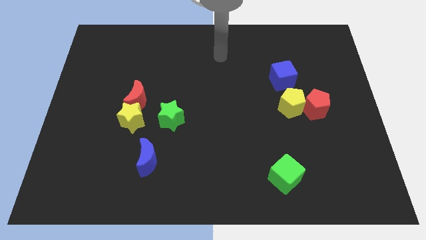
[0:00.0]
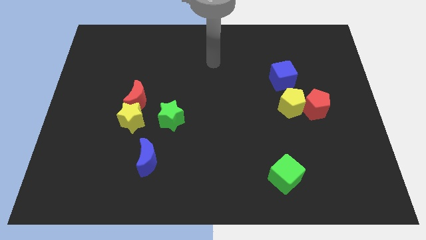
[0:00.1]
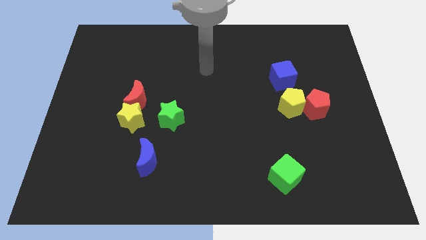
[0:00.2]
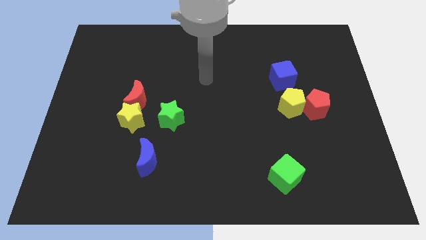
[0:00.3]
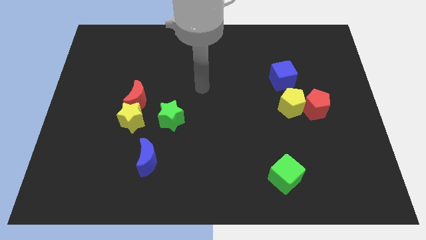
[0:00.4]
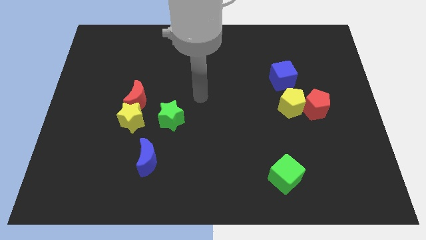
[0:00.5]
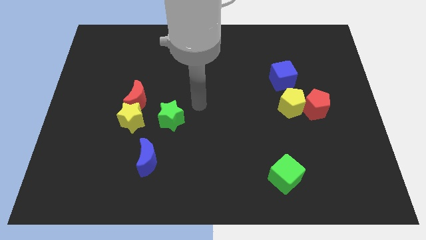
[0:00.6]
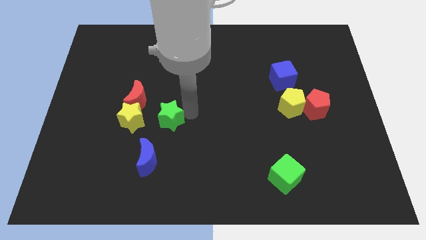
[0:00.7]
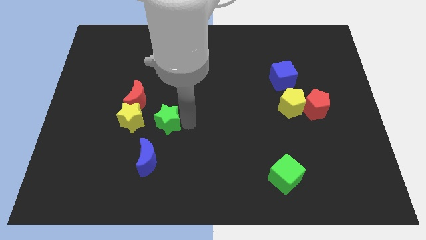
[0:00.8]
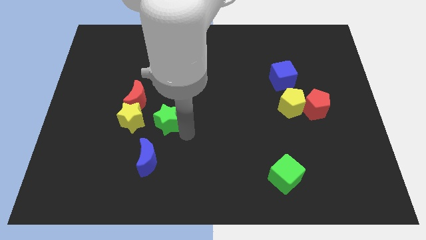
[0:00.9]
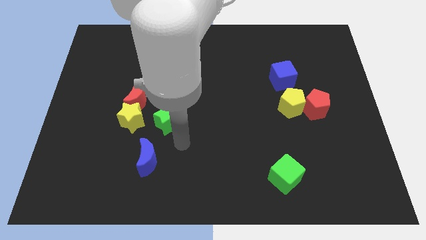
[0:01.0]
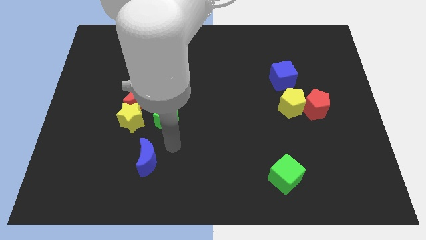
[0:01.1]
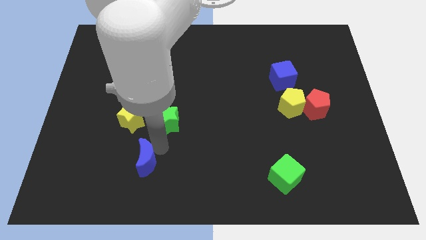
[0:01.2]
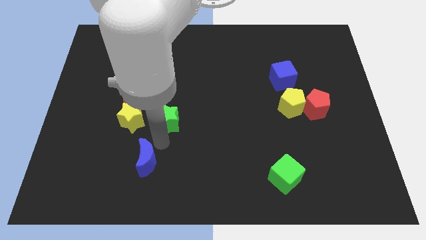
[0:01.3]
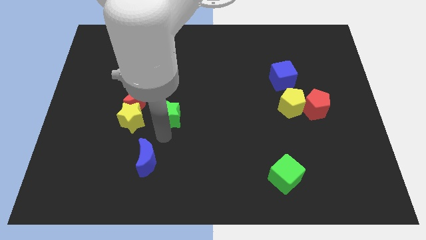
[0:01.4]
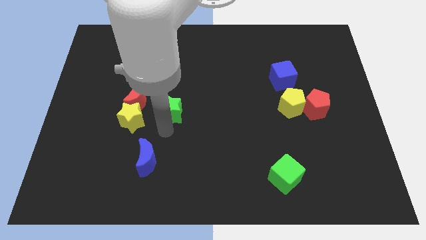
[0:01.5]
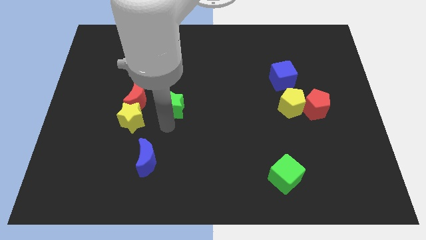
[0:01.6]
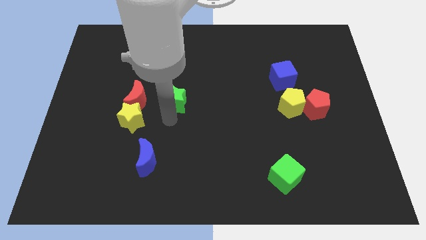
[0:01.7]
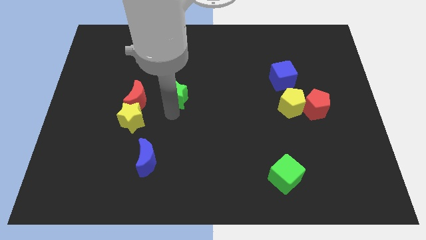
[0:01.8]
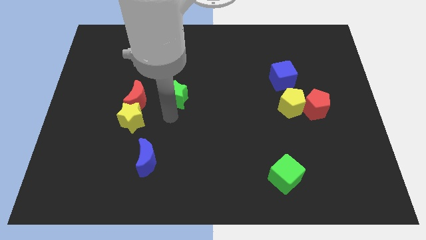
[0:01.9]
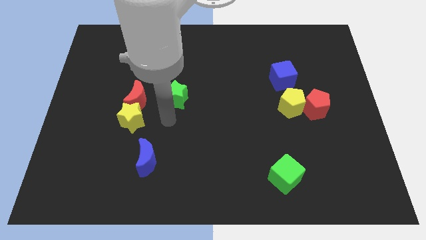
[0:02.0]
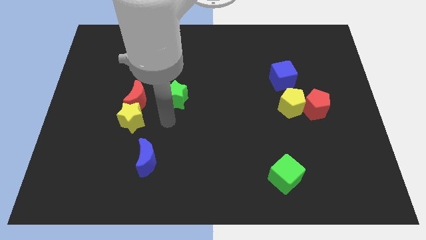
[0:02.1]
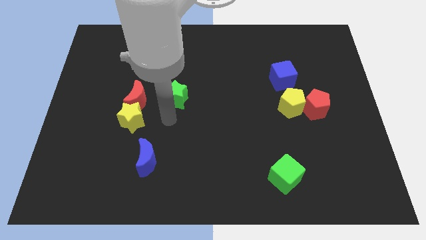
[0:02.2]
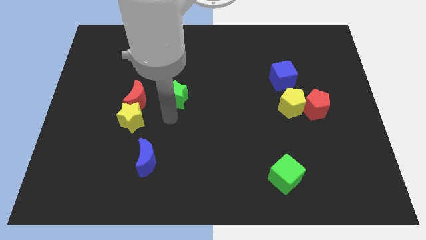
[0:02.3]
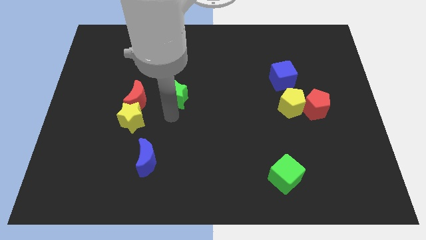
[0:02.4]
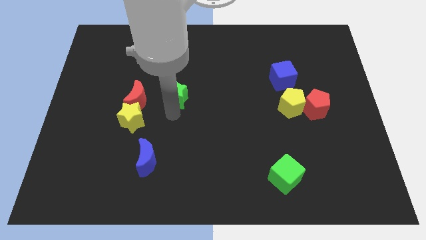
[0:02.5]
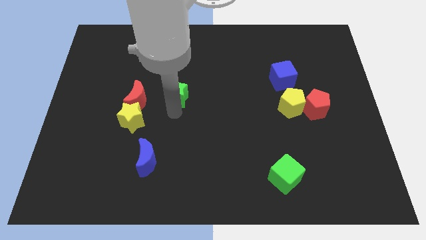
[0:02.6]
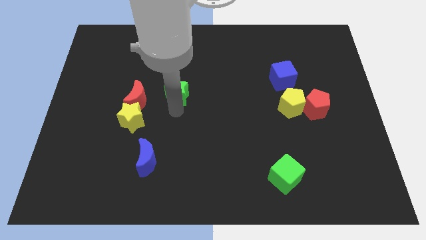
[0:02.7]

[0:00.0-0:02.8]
move the green star somewhat upwards

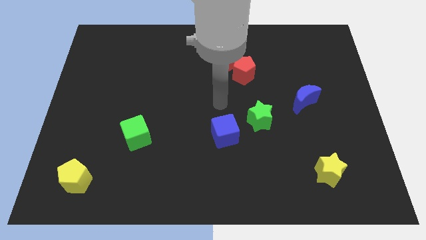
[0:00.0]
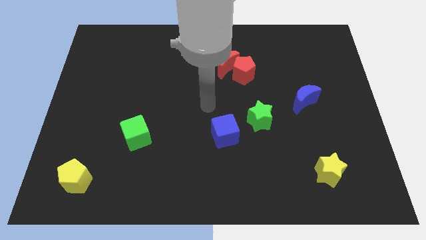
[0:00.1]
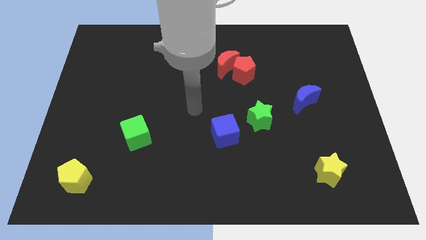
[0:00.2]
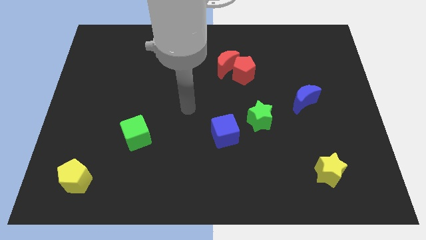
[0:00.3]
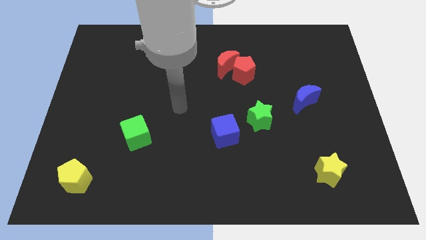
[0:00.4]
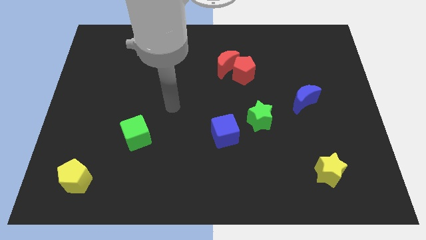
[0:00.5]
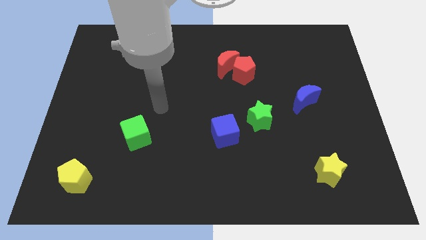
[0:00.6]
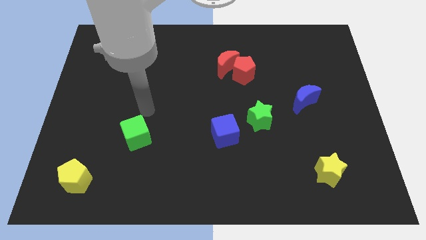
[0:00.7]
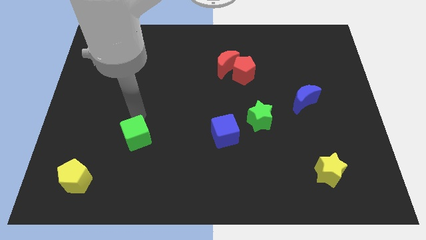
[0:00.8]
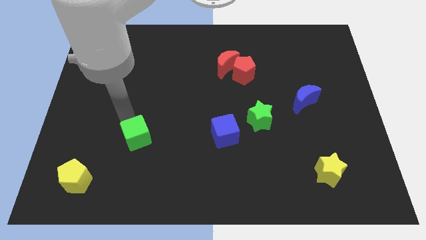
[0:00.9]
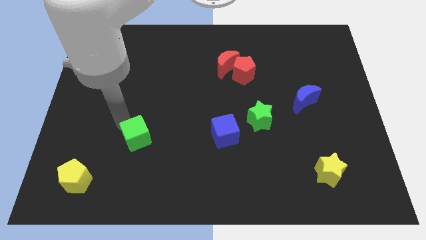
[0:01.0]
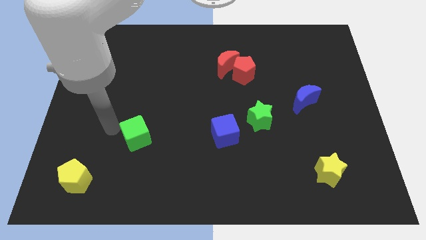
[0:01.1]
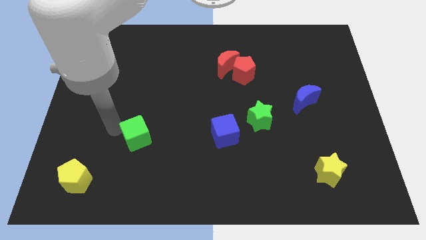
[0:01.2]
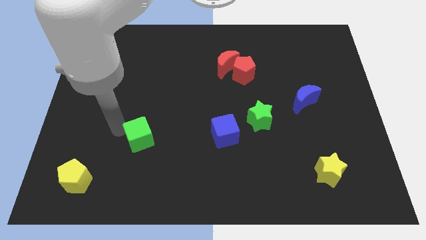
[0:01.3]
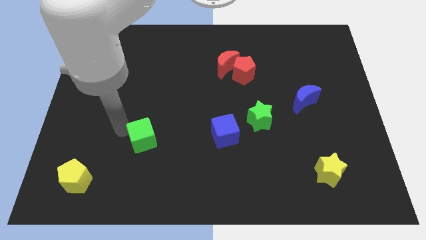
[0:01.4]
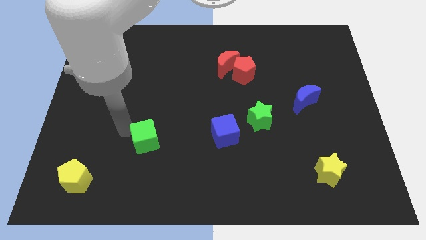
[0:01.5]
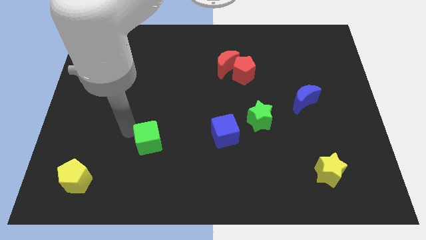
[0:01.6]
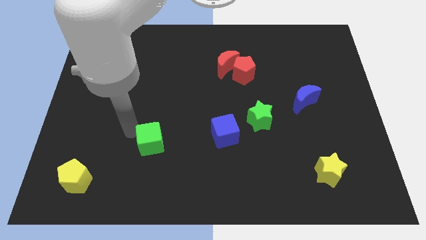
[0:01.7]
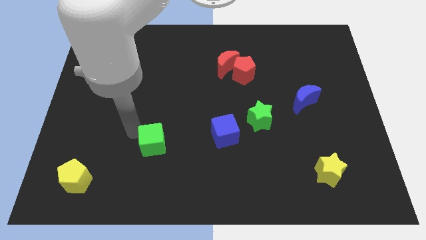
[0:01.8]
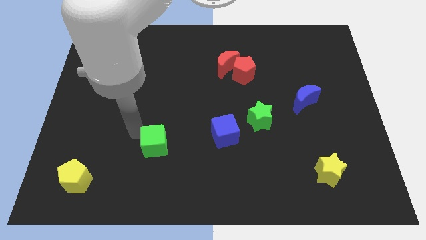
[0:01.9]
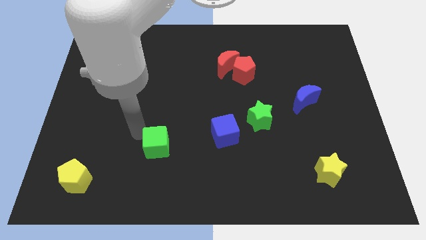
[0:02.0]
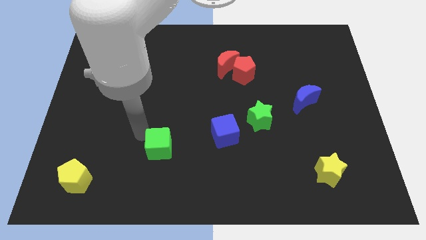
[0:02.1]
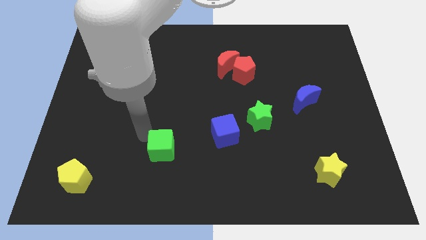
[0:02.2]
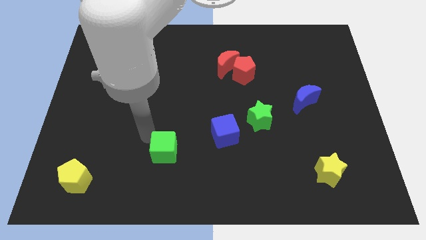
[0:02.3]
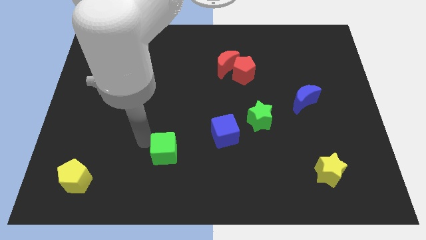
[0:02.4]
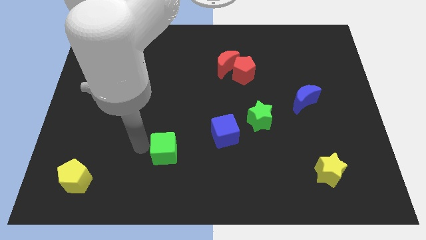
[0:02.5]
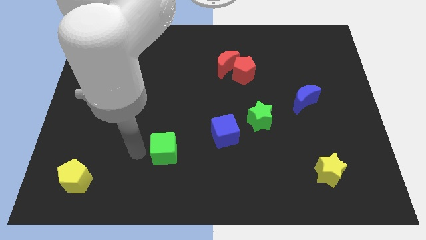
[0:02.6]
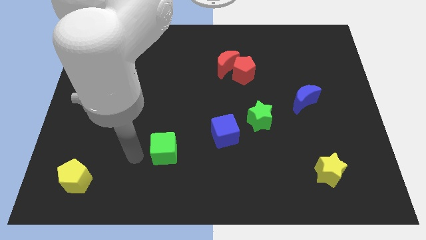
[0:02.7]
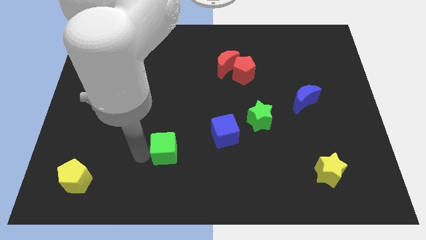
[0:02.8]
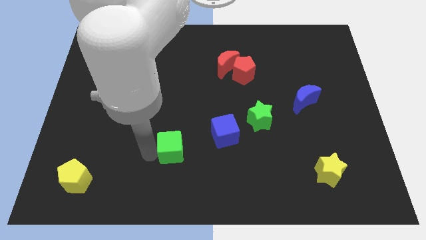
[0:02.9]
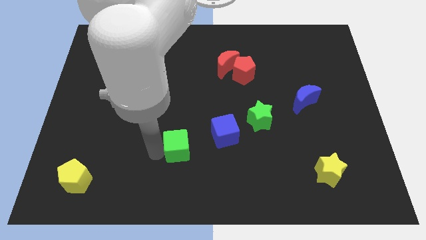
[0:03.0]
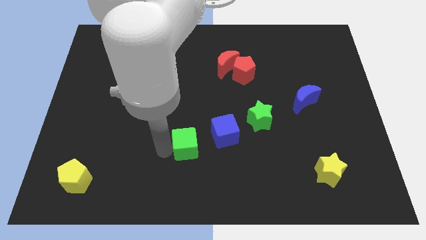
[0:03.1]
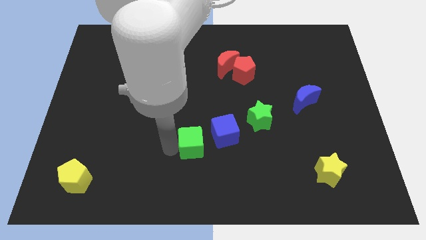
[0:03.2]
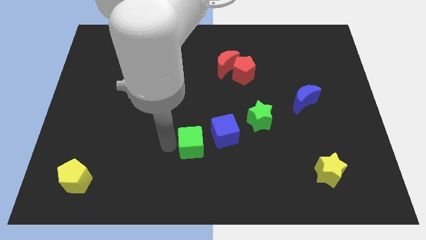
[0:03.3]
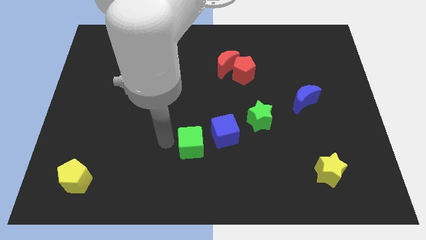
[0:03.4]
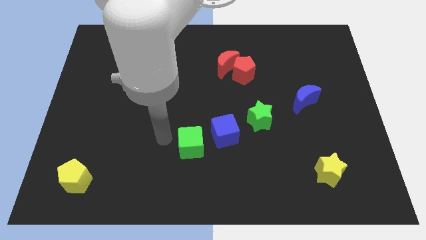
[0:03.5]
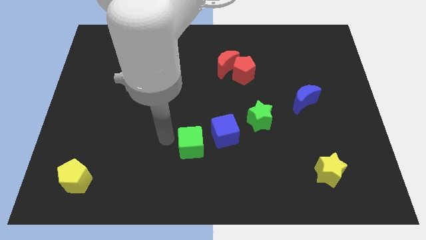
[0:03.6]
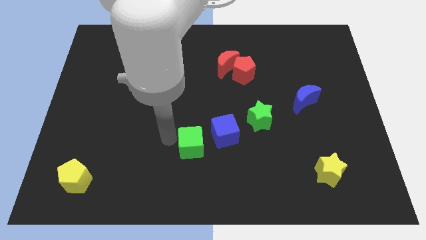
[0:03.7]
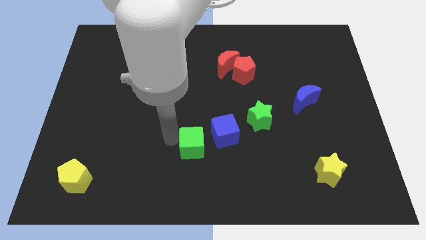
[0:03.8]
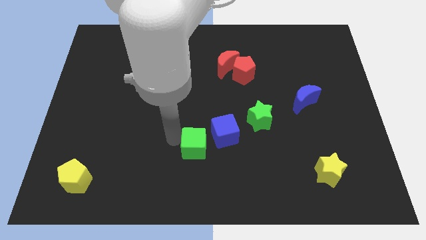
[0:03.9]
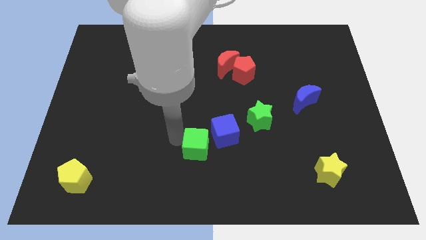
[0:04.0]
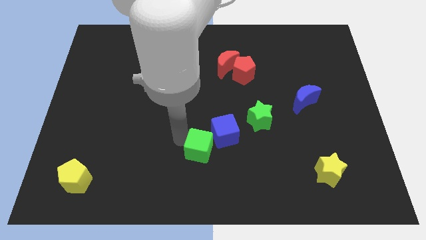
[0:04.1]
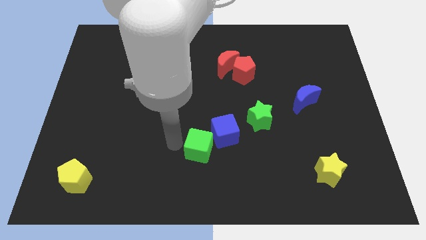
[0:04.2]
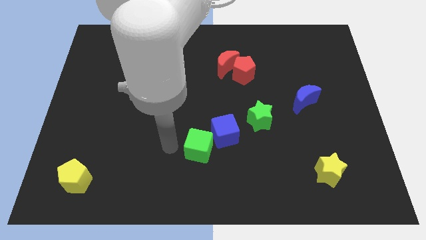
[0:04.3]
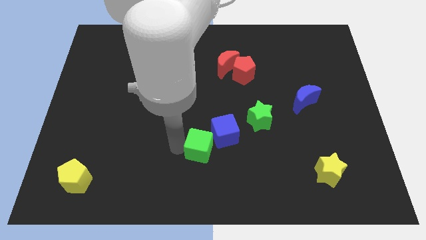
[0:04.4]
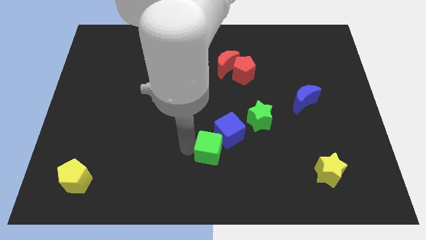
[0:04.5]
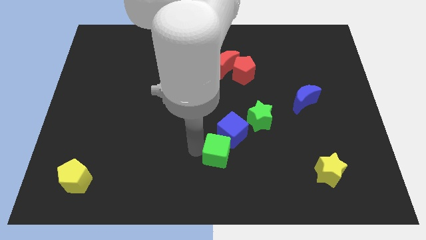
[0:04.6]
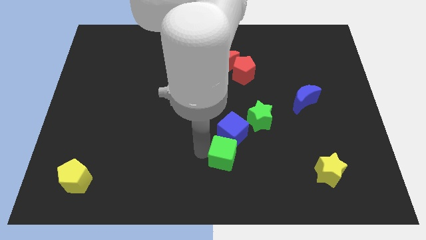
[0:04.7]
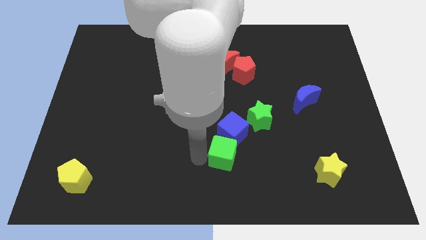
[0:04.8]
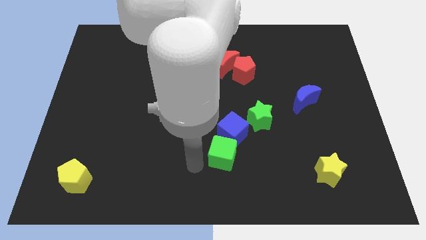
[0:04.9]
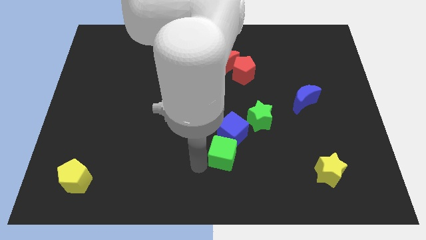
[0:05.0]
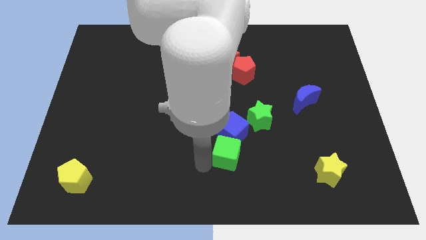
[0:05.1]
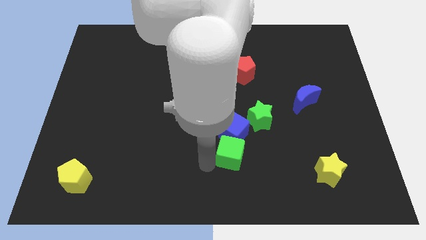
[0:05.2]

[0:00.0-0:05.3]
push the green cube to the right
